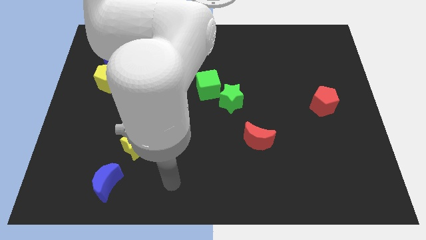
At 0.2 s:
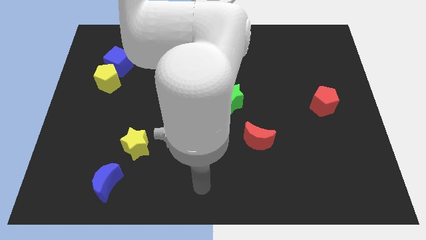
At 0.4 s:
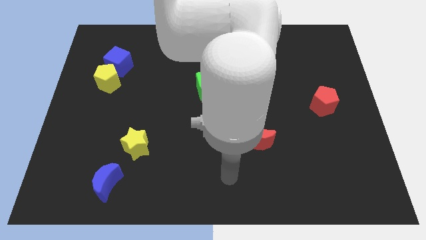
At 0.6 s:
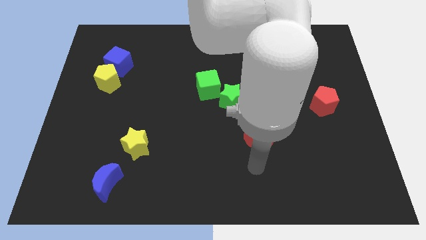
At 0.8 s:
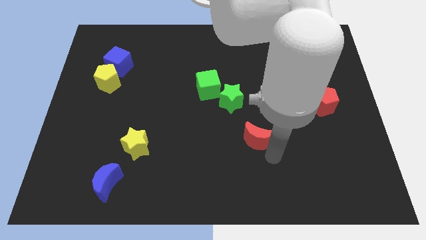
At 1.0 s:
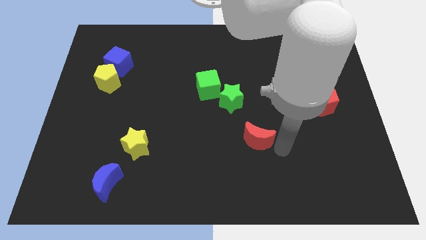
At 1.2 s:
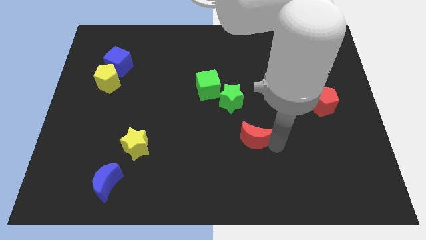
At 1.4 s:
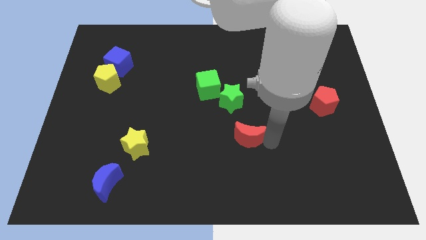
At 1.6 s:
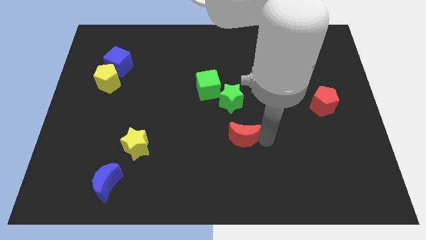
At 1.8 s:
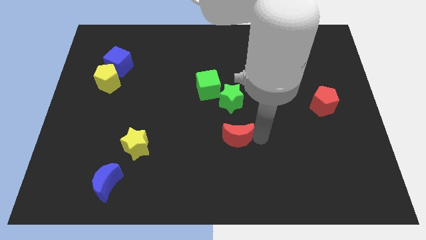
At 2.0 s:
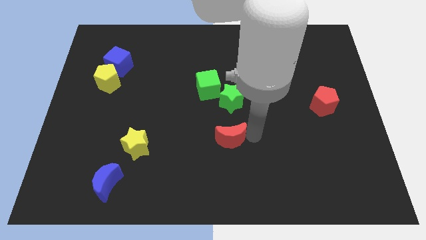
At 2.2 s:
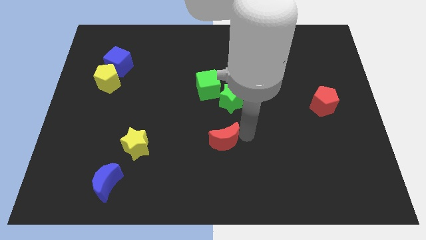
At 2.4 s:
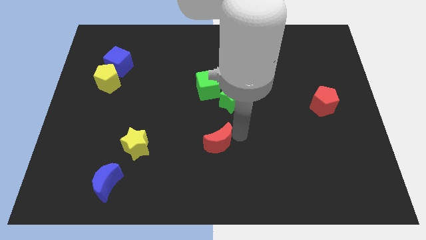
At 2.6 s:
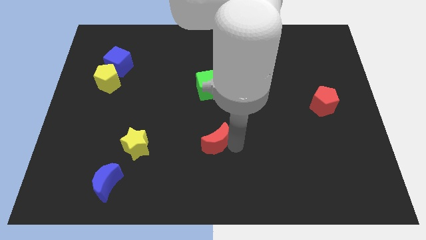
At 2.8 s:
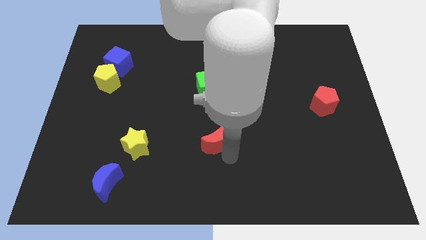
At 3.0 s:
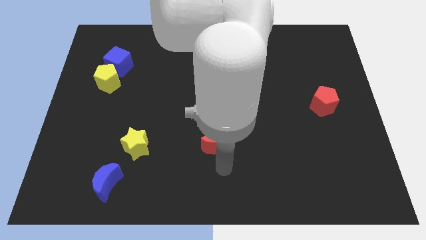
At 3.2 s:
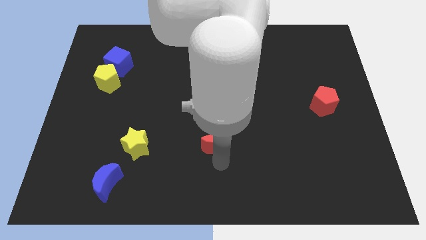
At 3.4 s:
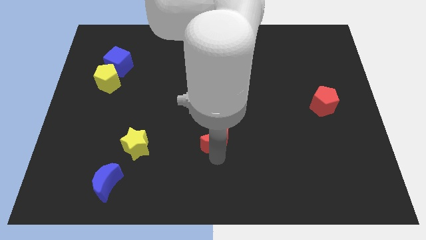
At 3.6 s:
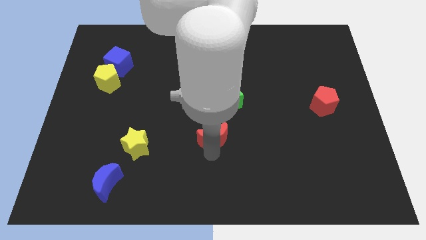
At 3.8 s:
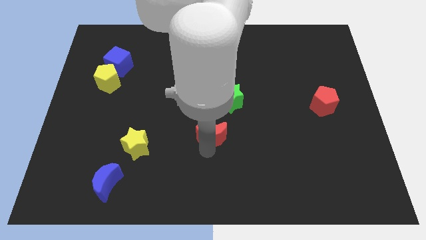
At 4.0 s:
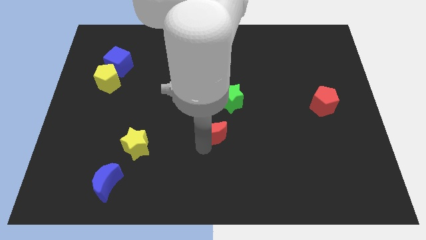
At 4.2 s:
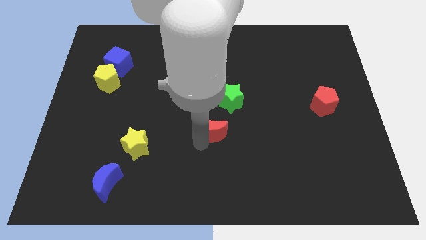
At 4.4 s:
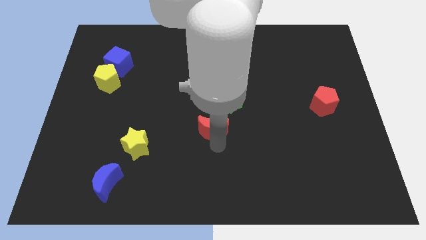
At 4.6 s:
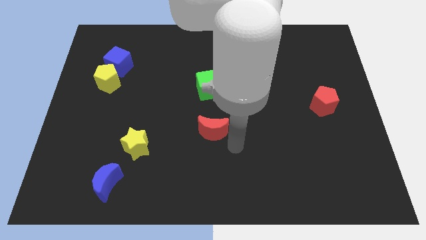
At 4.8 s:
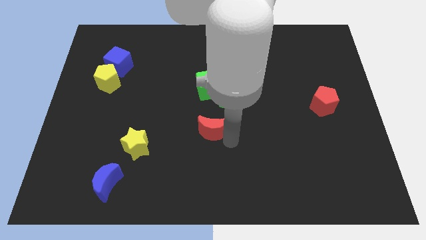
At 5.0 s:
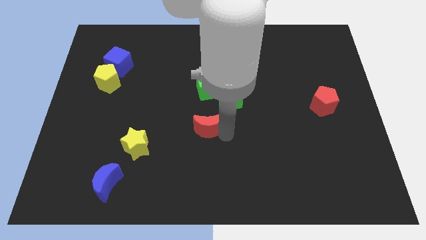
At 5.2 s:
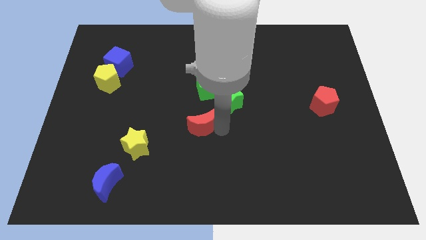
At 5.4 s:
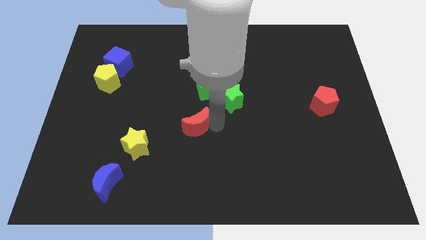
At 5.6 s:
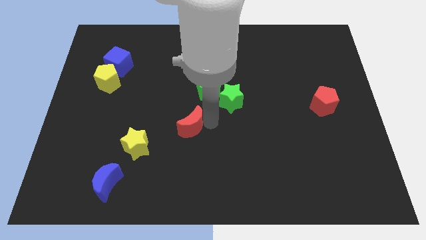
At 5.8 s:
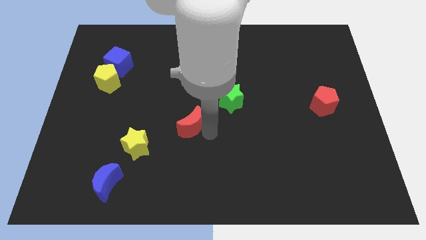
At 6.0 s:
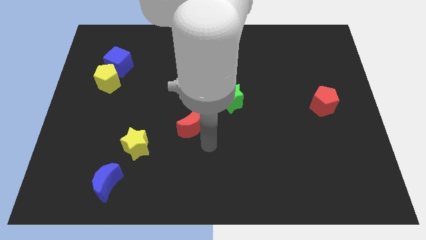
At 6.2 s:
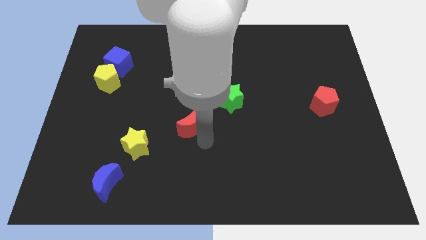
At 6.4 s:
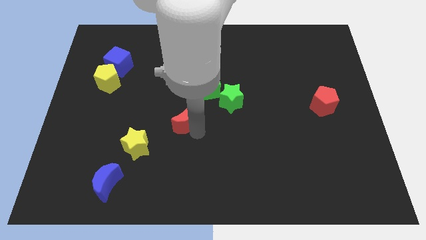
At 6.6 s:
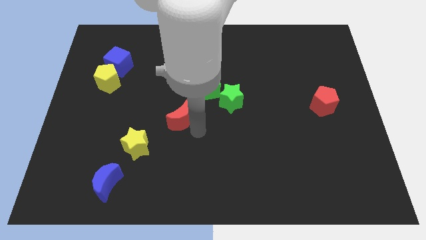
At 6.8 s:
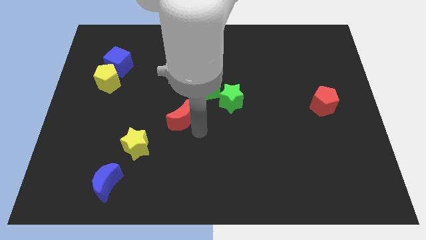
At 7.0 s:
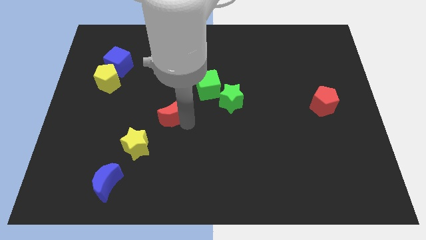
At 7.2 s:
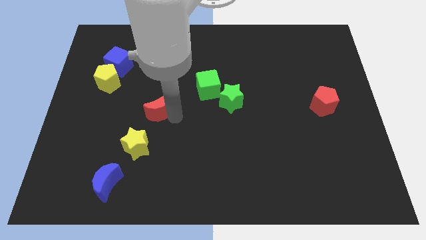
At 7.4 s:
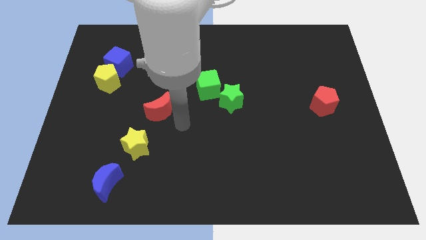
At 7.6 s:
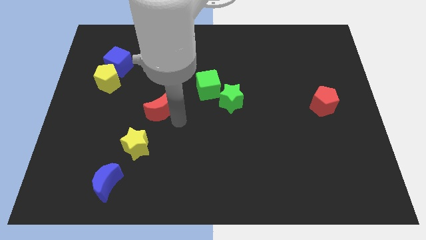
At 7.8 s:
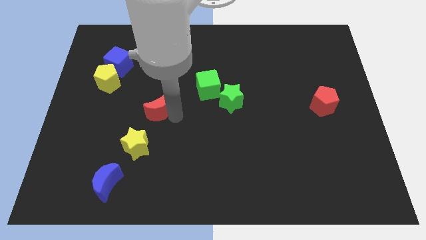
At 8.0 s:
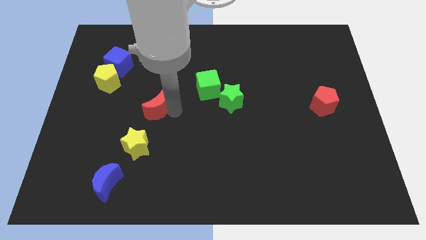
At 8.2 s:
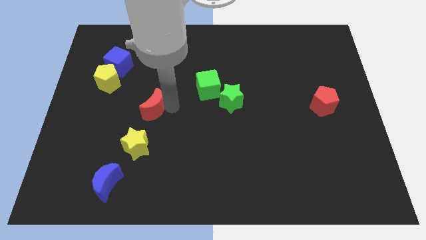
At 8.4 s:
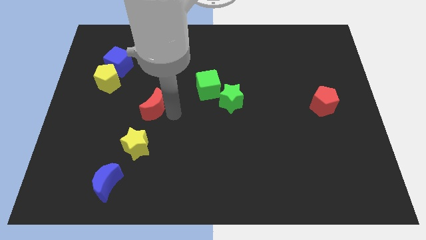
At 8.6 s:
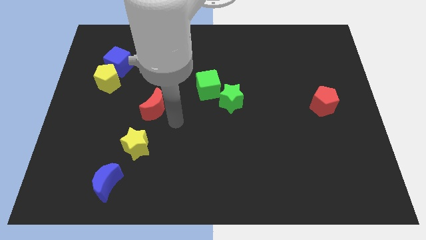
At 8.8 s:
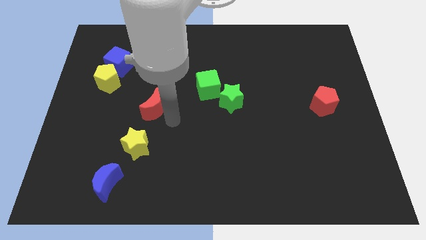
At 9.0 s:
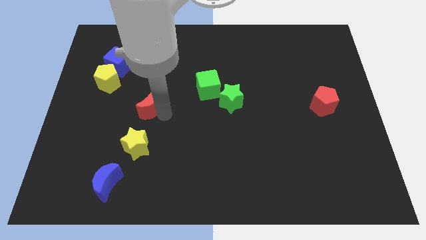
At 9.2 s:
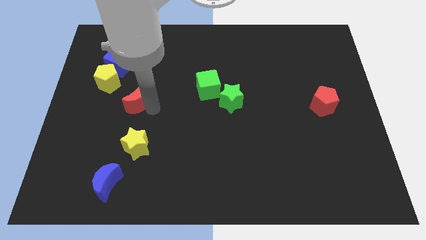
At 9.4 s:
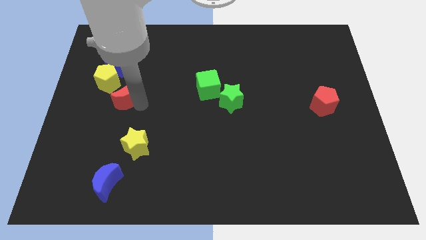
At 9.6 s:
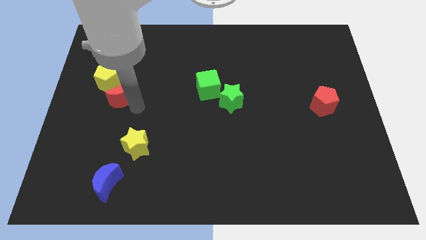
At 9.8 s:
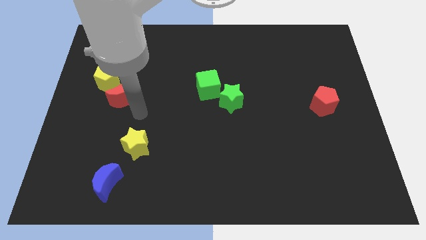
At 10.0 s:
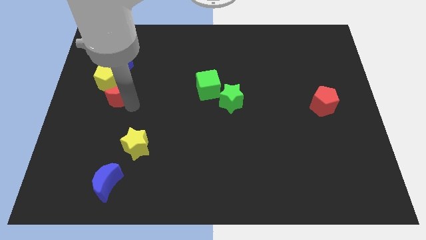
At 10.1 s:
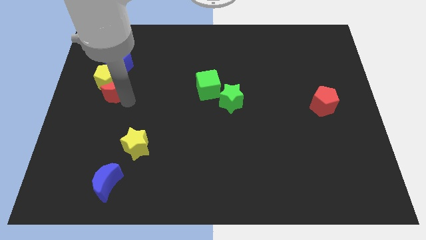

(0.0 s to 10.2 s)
push the red moon next to the yellow pentagon

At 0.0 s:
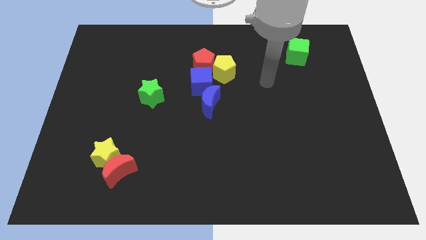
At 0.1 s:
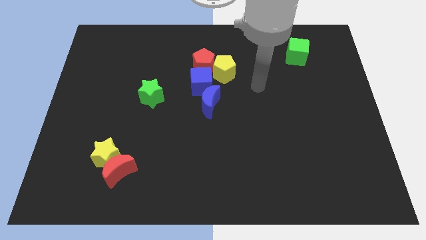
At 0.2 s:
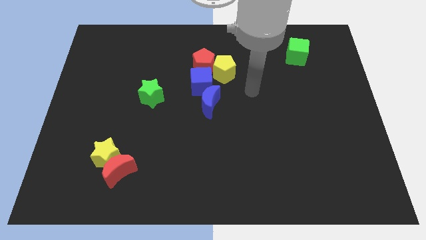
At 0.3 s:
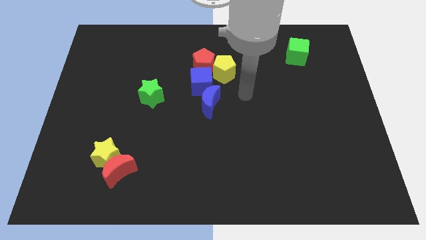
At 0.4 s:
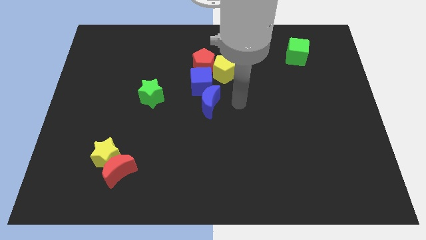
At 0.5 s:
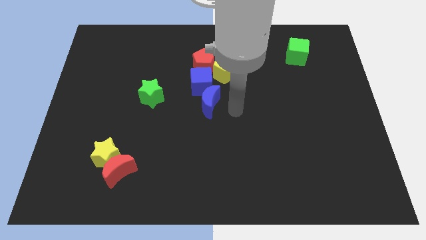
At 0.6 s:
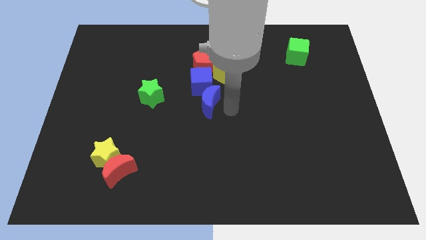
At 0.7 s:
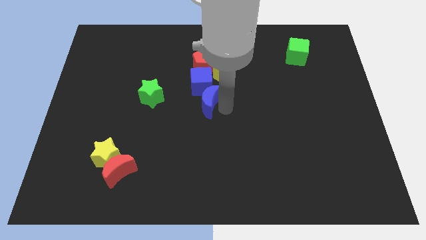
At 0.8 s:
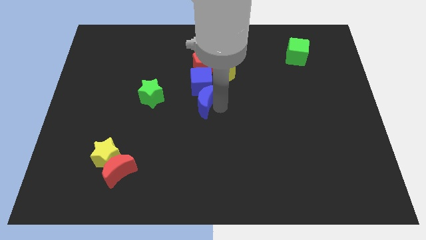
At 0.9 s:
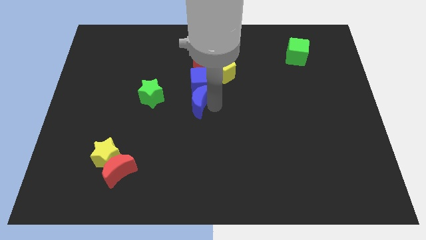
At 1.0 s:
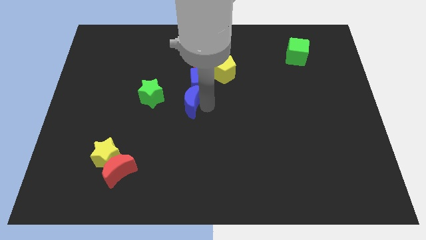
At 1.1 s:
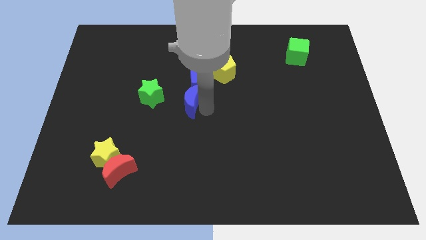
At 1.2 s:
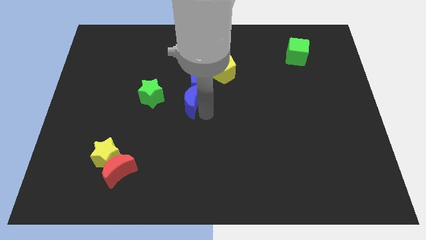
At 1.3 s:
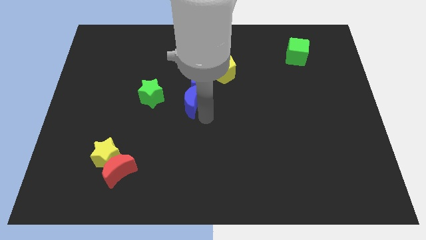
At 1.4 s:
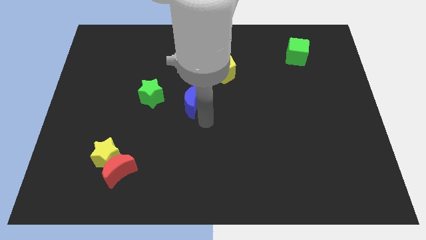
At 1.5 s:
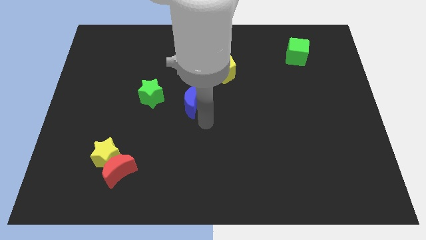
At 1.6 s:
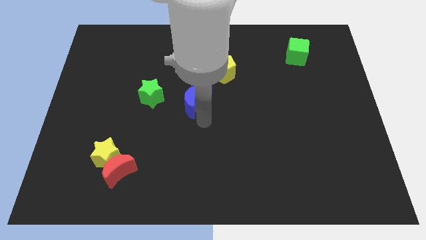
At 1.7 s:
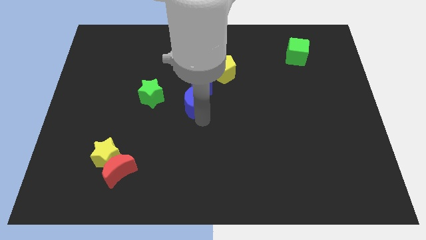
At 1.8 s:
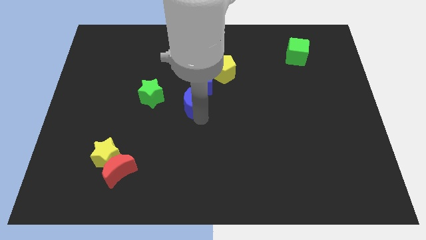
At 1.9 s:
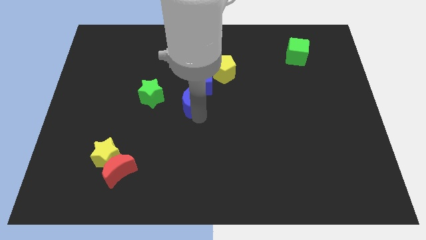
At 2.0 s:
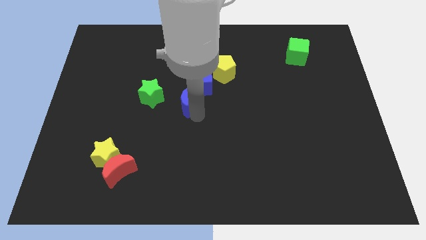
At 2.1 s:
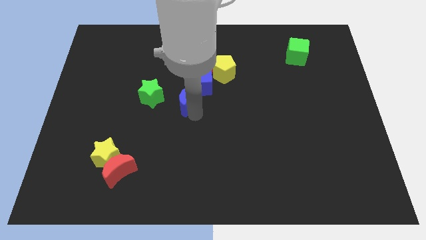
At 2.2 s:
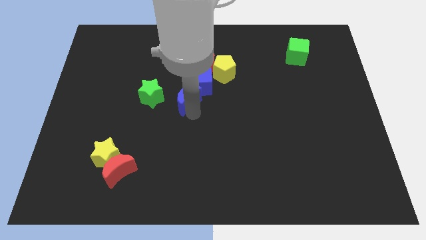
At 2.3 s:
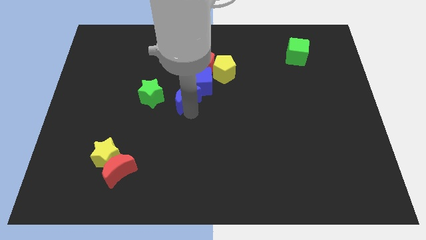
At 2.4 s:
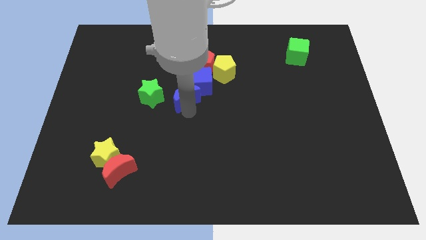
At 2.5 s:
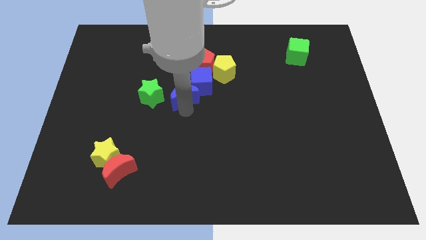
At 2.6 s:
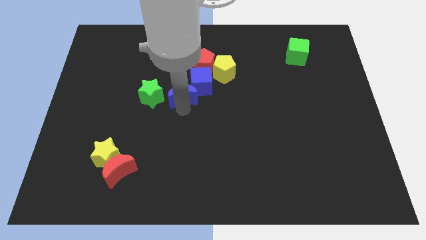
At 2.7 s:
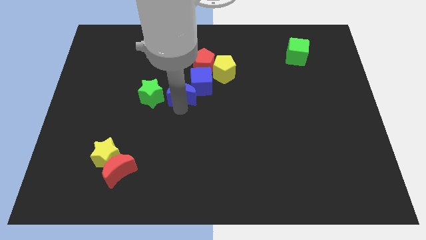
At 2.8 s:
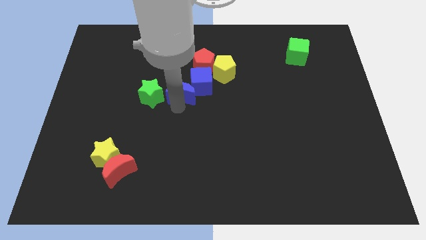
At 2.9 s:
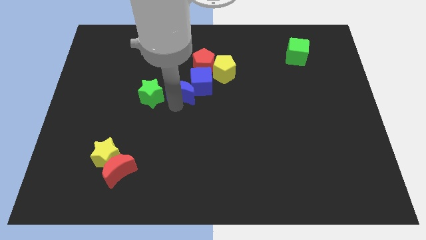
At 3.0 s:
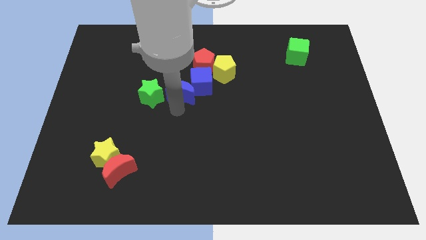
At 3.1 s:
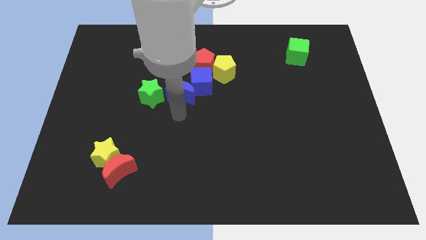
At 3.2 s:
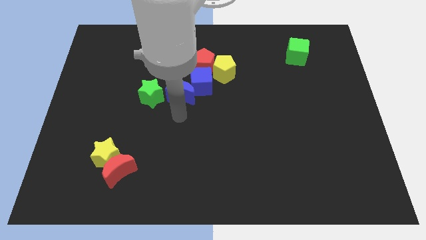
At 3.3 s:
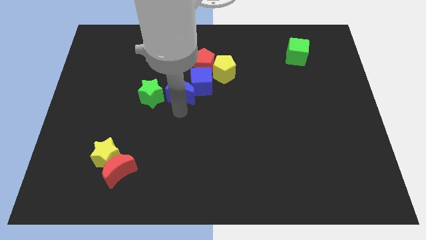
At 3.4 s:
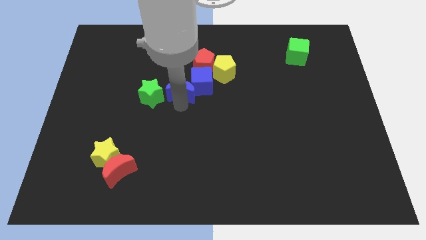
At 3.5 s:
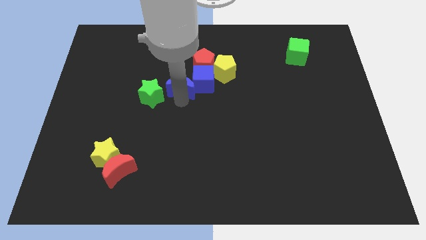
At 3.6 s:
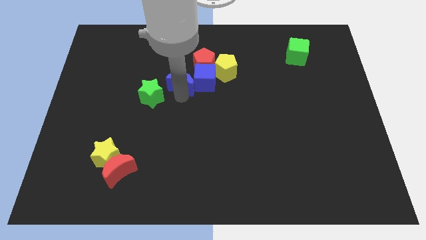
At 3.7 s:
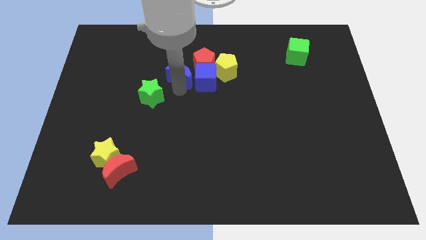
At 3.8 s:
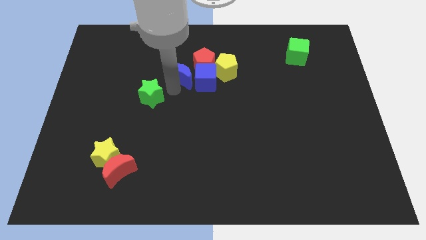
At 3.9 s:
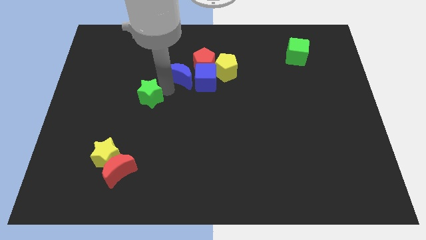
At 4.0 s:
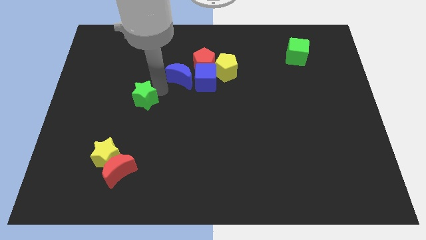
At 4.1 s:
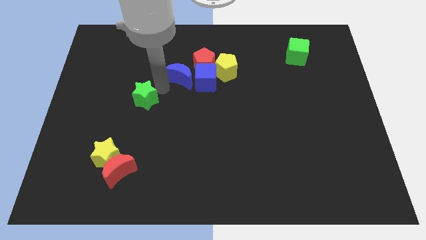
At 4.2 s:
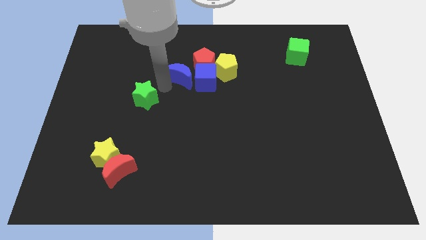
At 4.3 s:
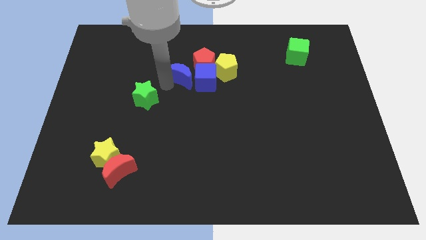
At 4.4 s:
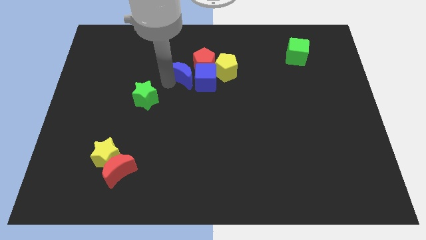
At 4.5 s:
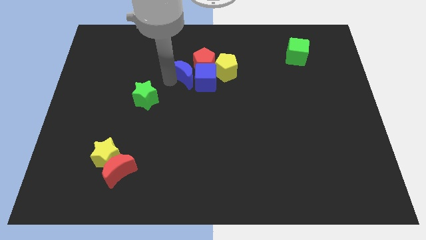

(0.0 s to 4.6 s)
put the blue moon close to the red pentagon
